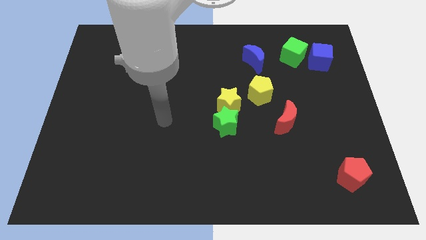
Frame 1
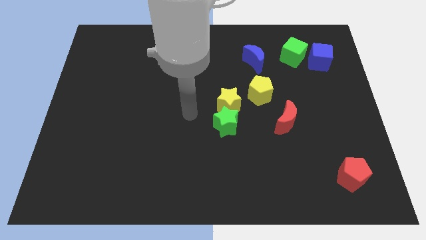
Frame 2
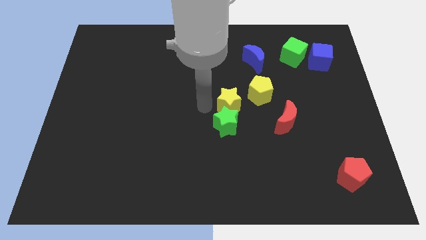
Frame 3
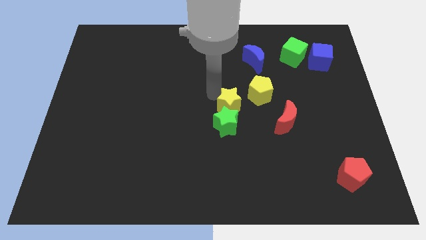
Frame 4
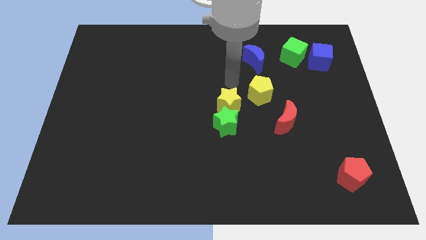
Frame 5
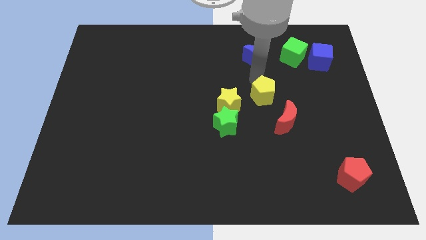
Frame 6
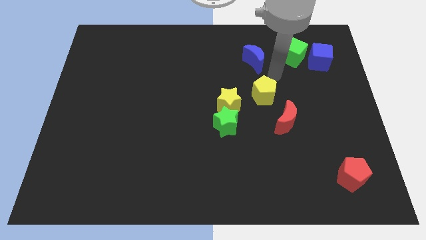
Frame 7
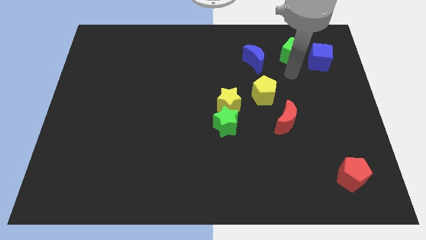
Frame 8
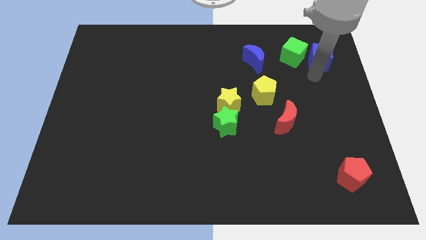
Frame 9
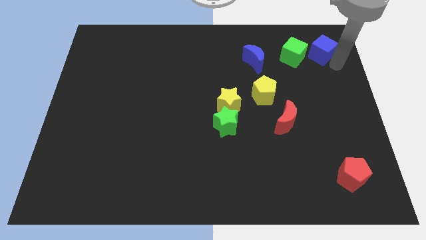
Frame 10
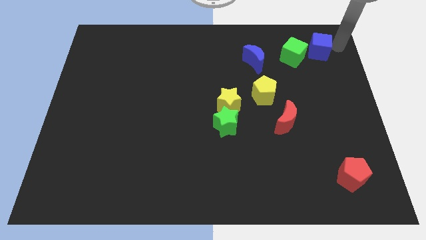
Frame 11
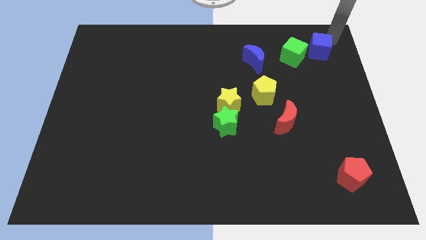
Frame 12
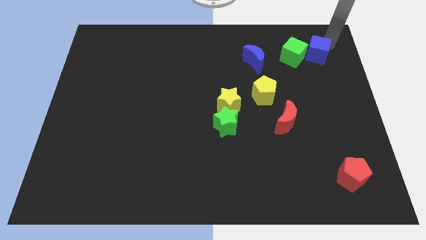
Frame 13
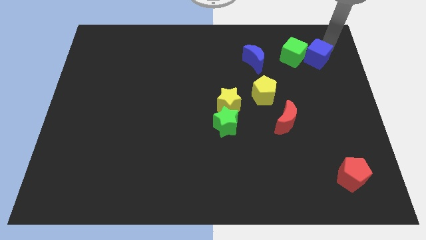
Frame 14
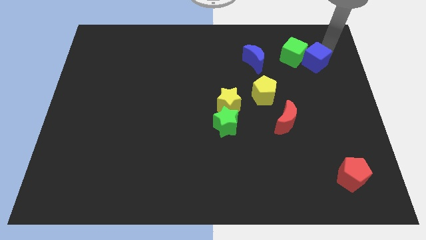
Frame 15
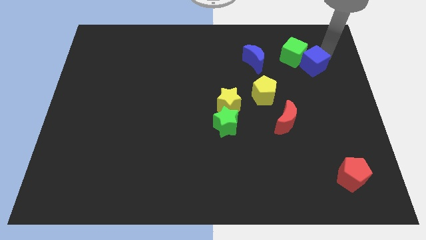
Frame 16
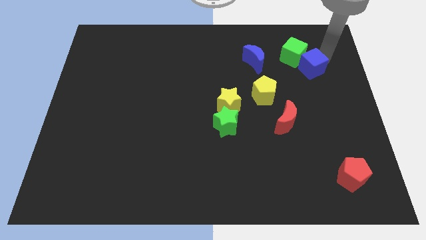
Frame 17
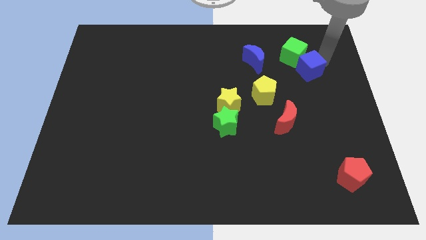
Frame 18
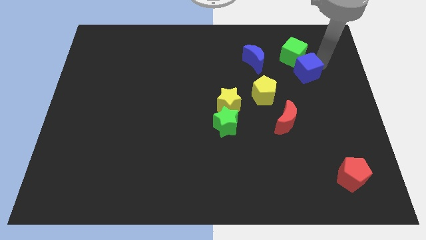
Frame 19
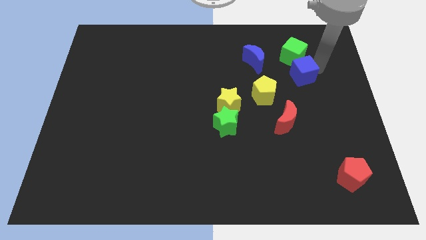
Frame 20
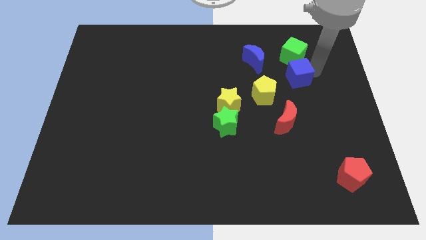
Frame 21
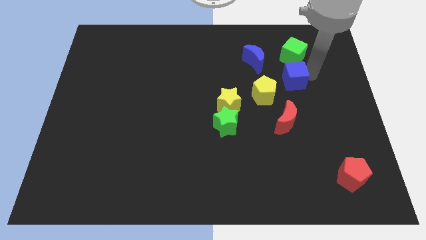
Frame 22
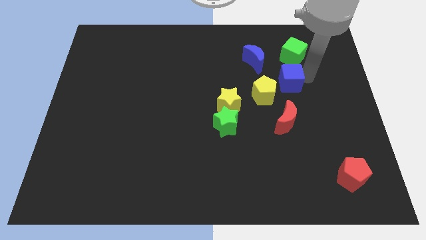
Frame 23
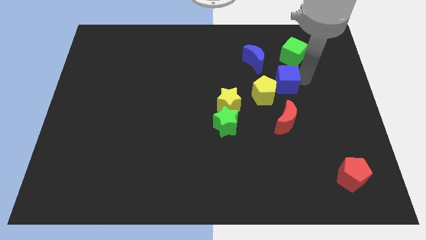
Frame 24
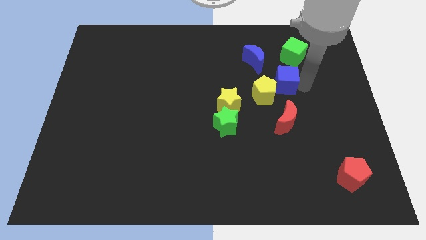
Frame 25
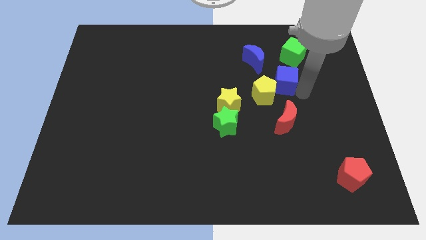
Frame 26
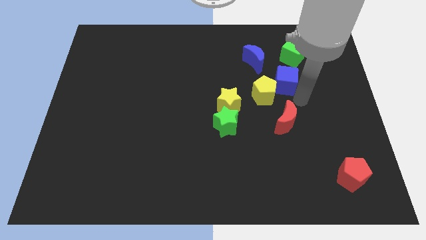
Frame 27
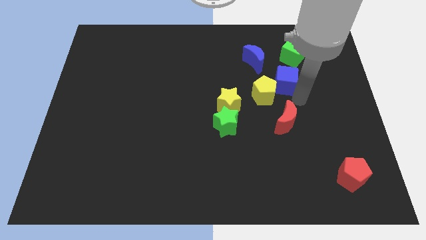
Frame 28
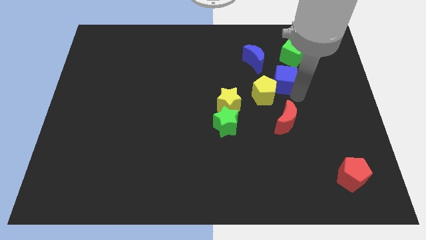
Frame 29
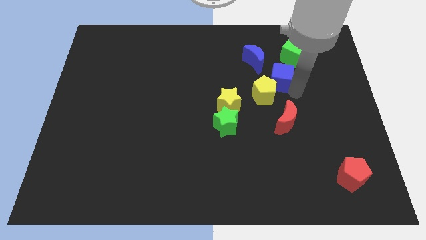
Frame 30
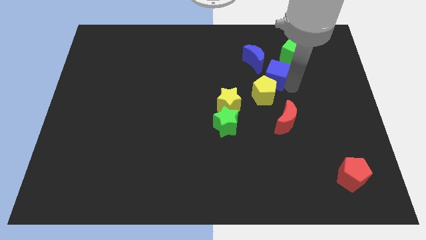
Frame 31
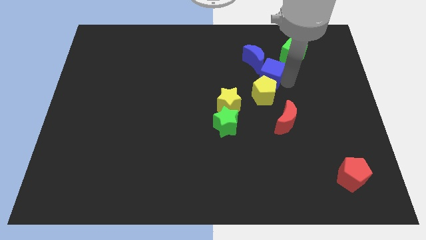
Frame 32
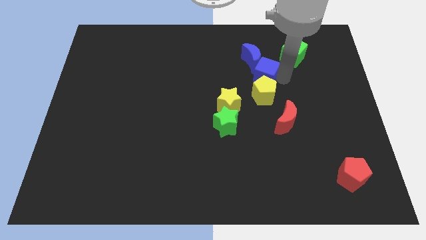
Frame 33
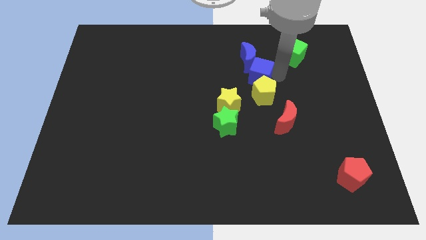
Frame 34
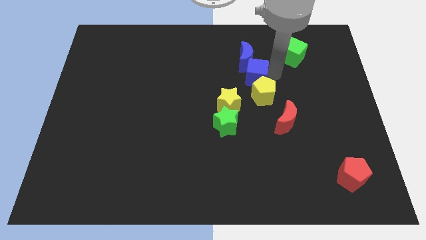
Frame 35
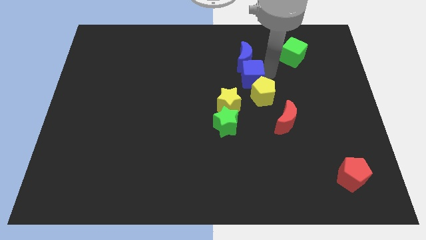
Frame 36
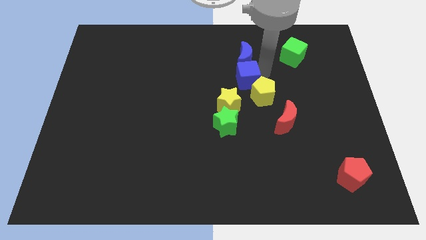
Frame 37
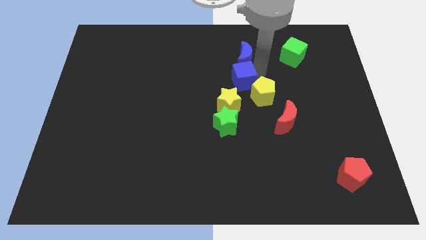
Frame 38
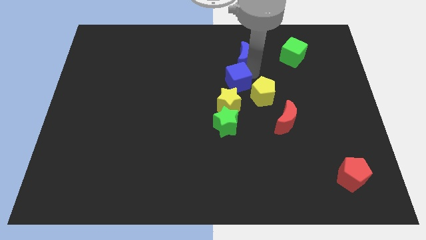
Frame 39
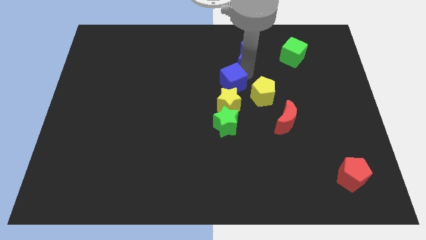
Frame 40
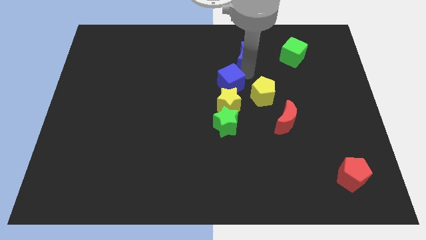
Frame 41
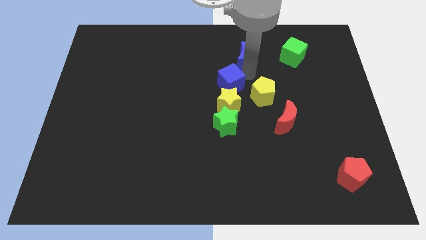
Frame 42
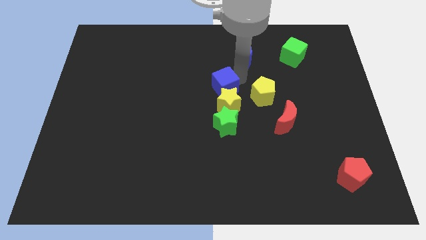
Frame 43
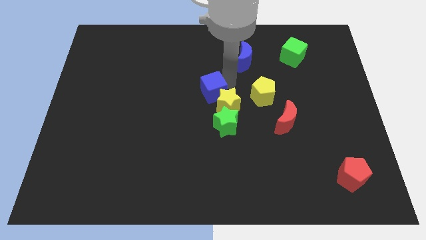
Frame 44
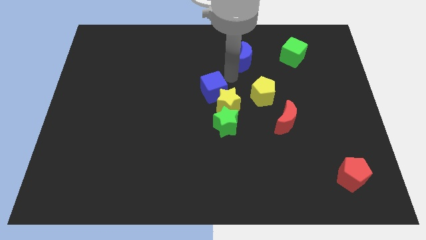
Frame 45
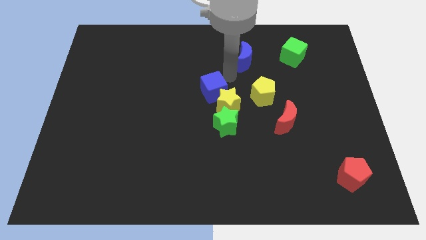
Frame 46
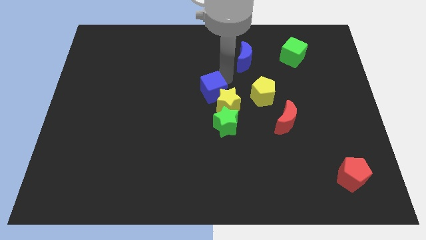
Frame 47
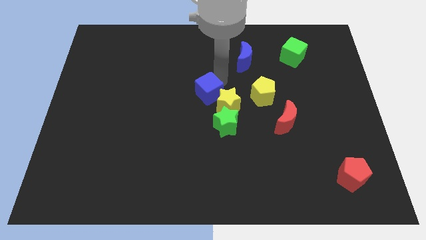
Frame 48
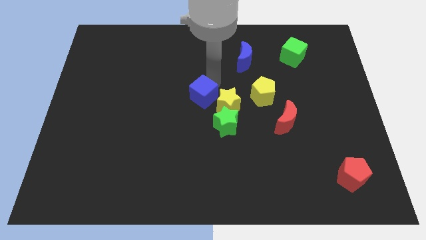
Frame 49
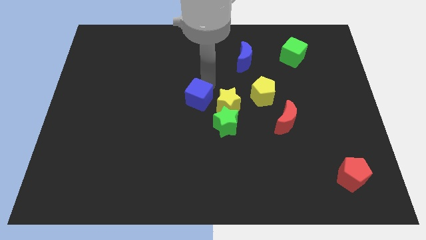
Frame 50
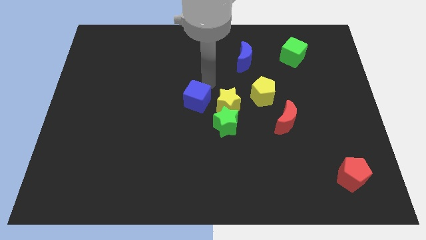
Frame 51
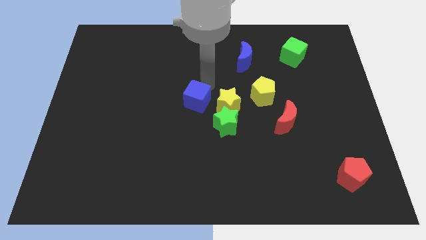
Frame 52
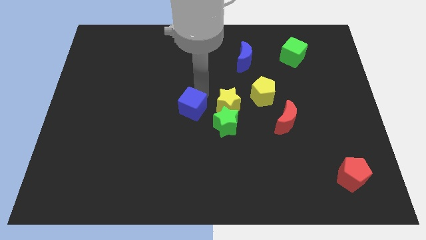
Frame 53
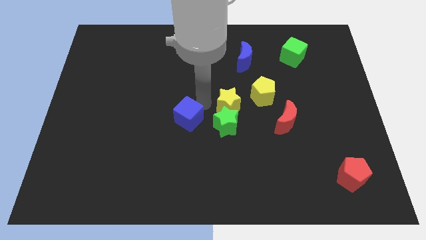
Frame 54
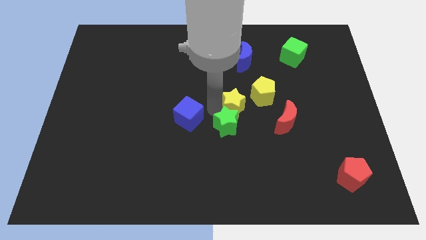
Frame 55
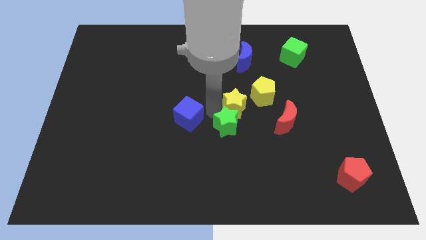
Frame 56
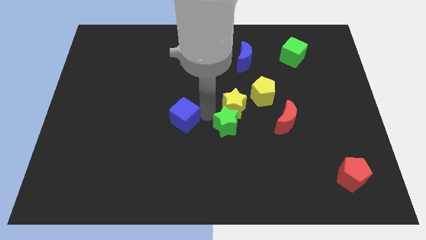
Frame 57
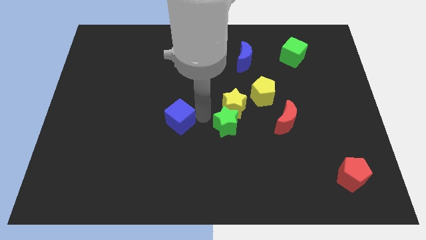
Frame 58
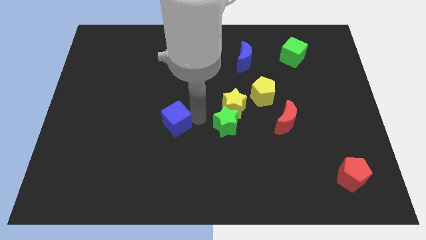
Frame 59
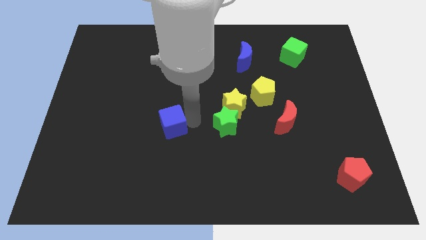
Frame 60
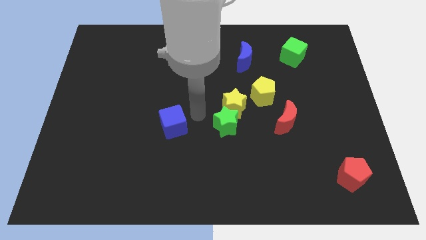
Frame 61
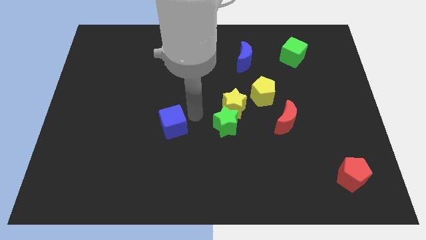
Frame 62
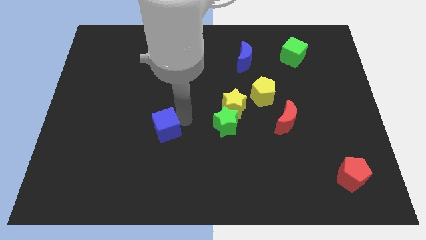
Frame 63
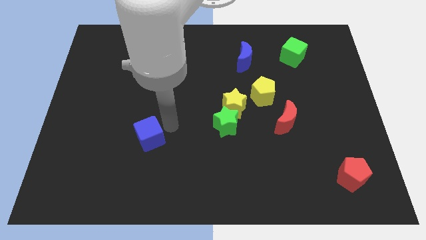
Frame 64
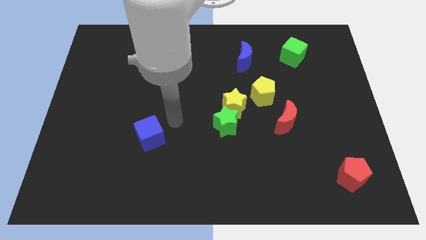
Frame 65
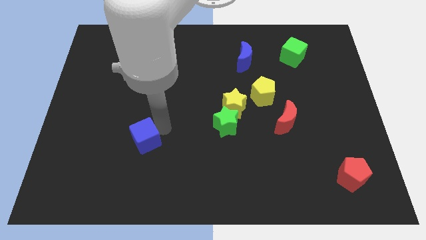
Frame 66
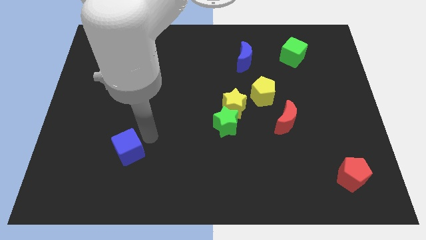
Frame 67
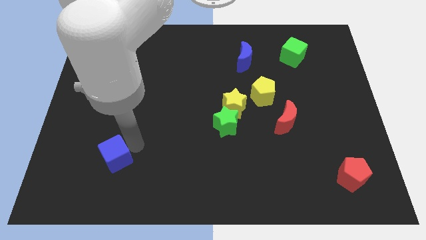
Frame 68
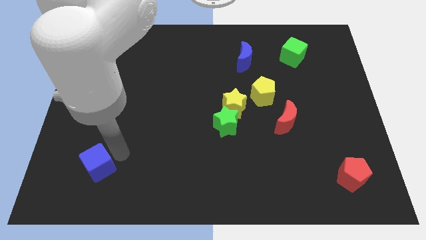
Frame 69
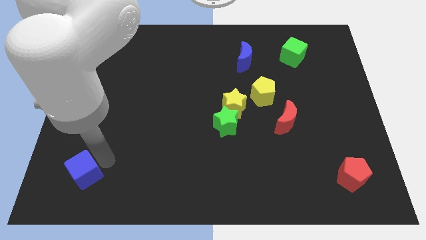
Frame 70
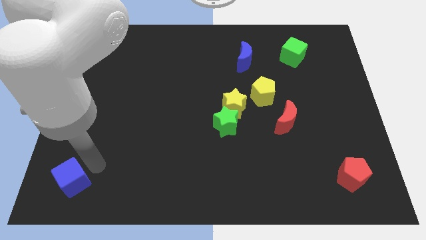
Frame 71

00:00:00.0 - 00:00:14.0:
put the blue cube to the bottom left corner
